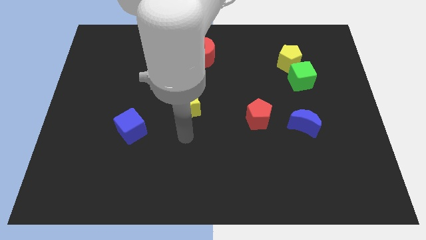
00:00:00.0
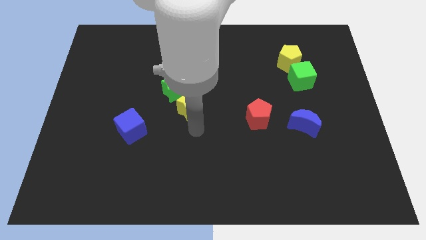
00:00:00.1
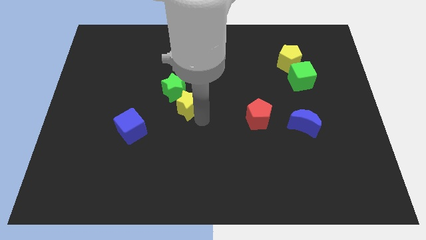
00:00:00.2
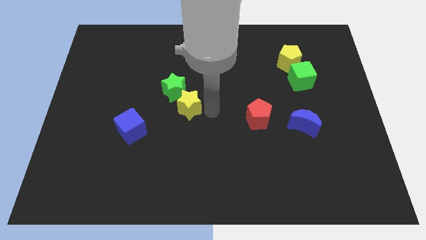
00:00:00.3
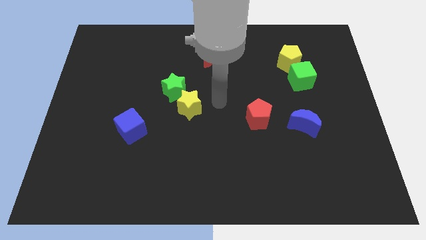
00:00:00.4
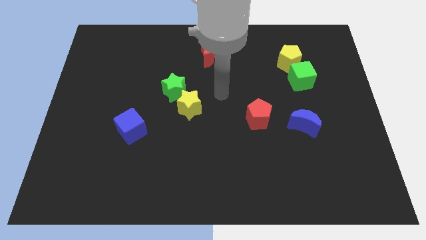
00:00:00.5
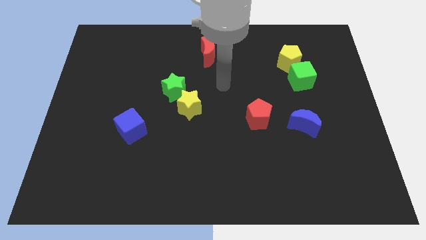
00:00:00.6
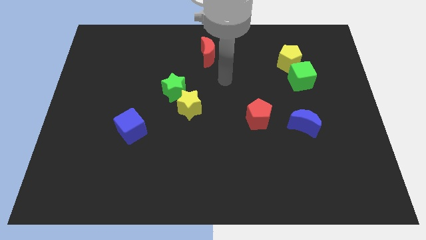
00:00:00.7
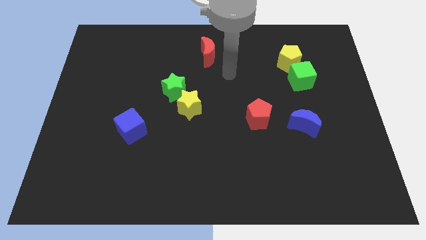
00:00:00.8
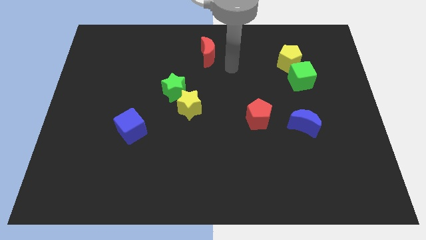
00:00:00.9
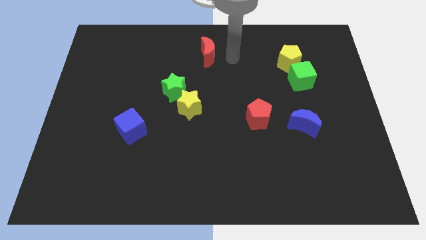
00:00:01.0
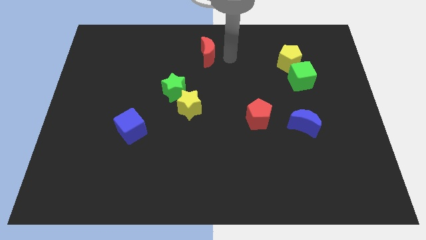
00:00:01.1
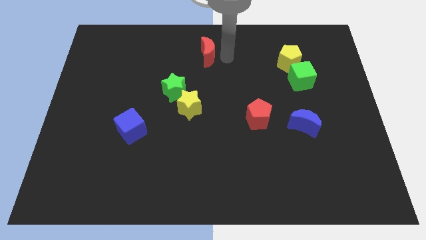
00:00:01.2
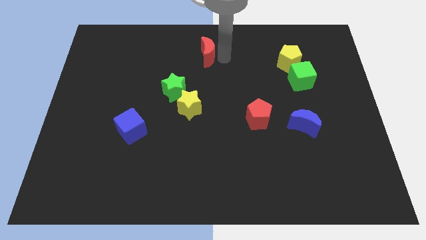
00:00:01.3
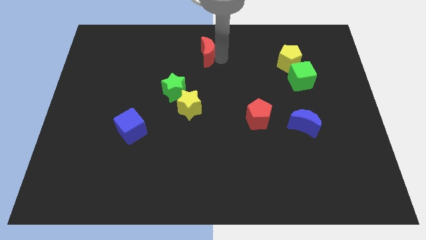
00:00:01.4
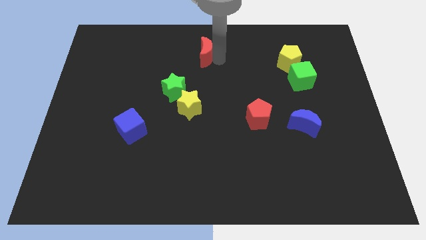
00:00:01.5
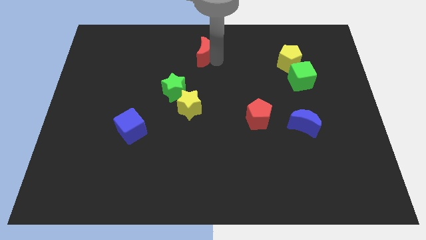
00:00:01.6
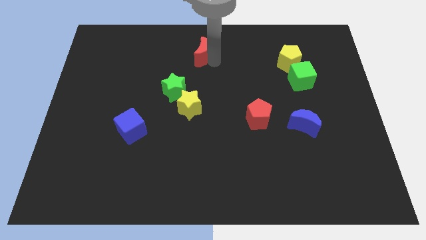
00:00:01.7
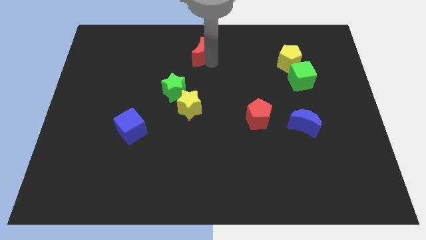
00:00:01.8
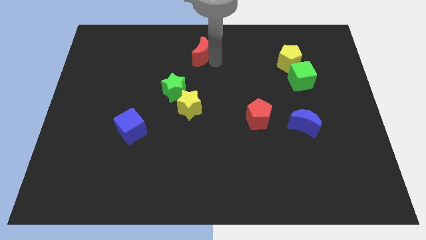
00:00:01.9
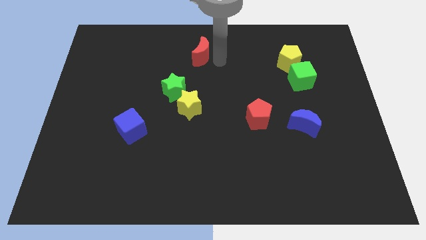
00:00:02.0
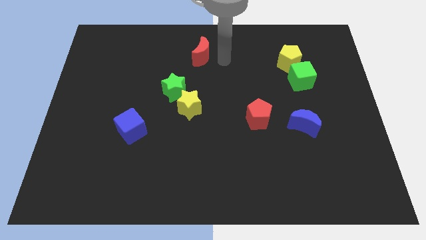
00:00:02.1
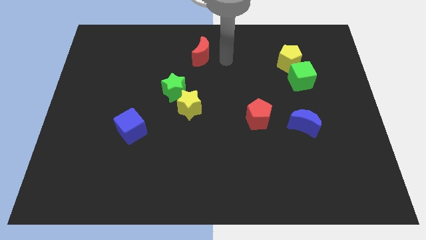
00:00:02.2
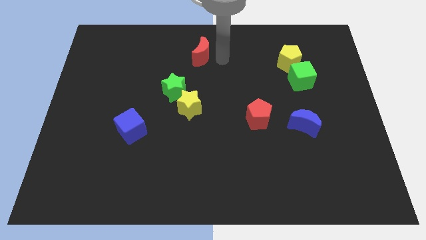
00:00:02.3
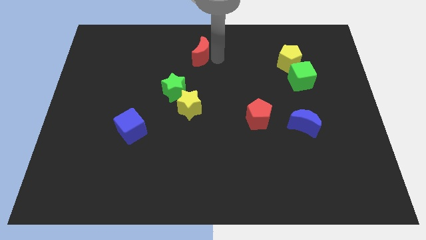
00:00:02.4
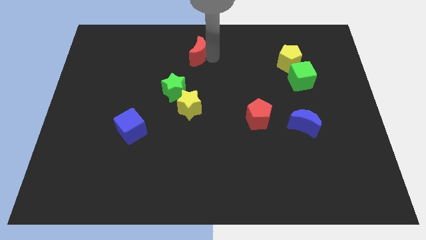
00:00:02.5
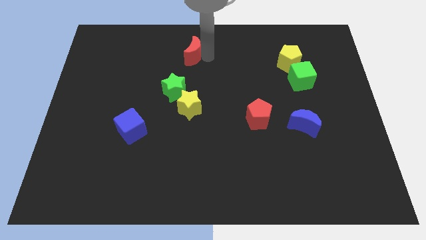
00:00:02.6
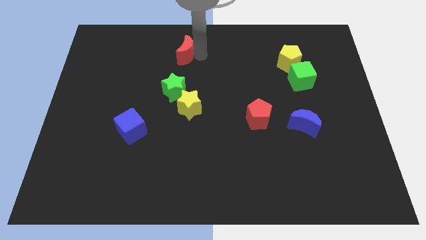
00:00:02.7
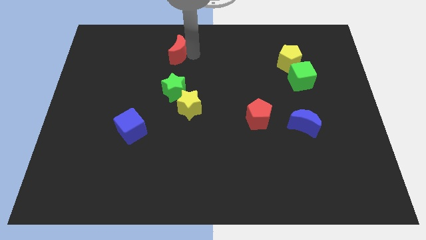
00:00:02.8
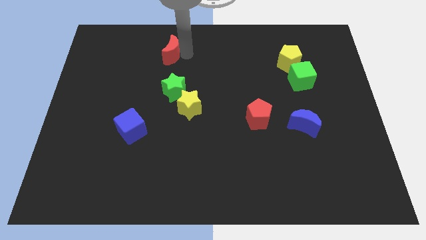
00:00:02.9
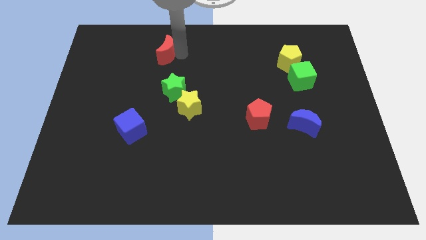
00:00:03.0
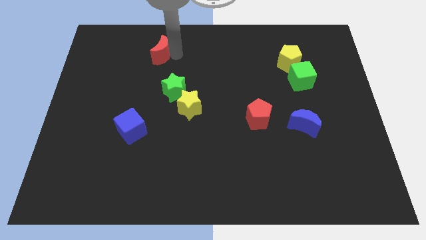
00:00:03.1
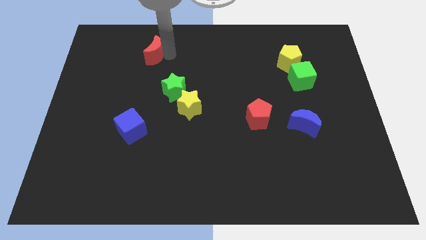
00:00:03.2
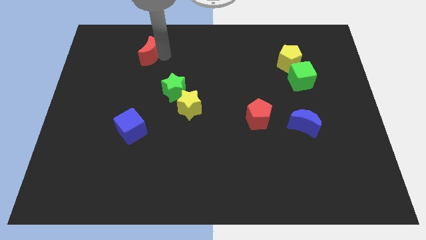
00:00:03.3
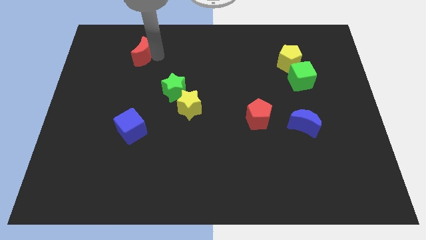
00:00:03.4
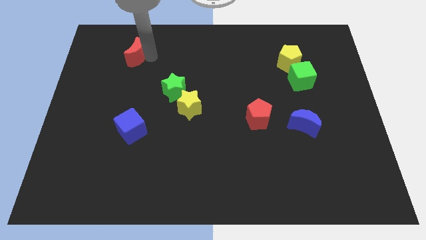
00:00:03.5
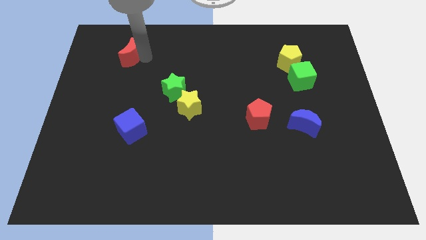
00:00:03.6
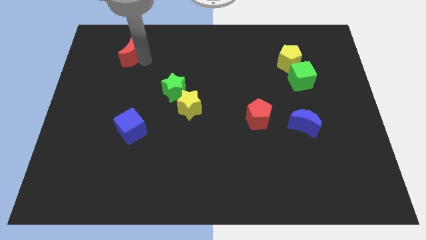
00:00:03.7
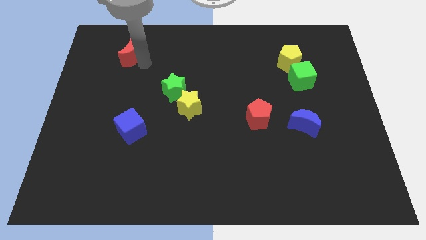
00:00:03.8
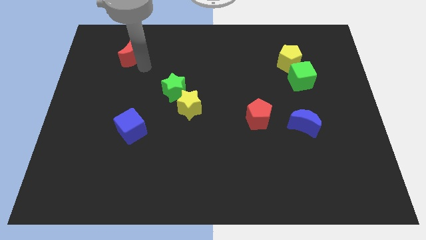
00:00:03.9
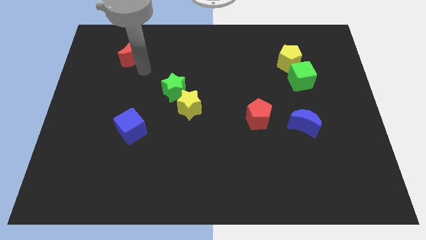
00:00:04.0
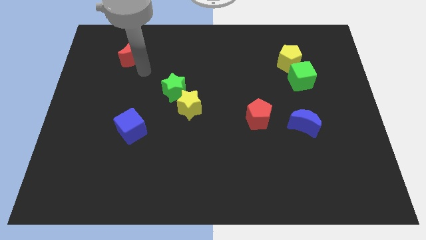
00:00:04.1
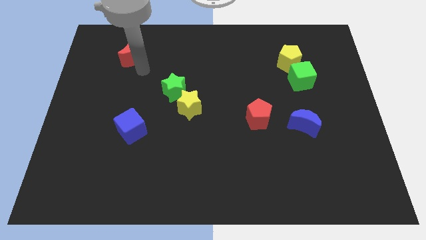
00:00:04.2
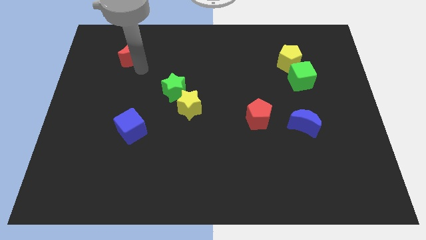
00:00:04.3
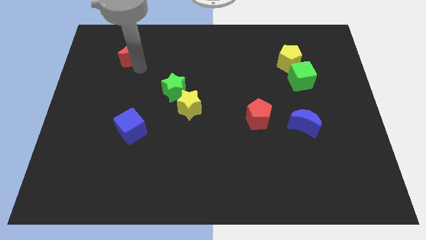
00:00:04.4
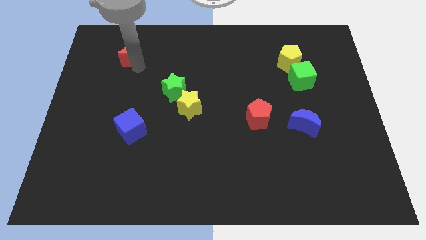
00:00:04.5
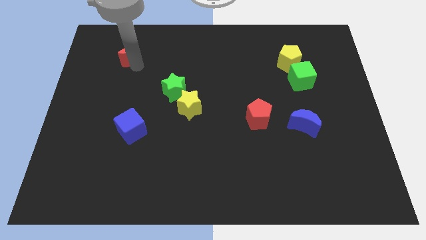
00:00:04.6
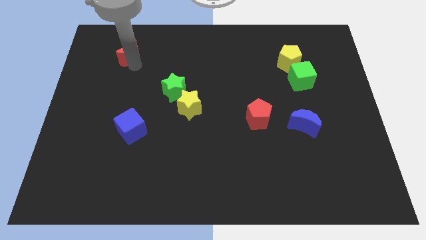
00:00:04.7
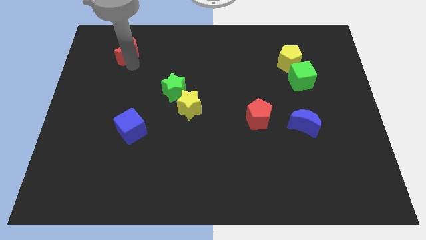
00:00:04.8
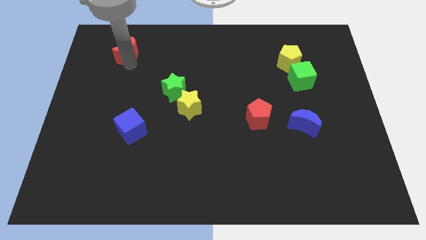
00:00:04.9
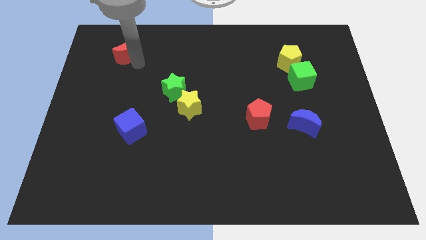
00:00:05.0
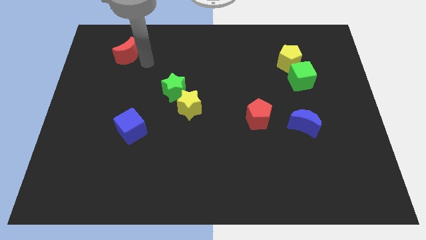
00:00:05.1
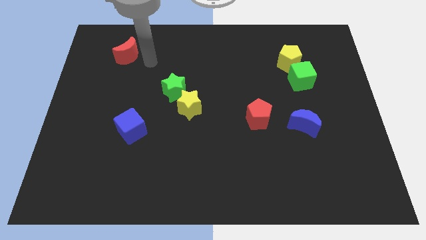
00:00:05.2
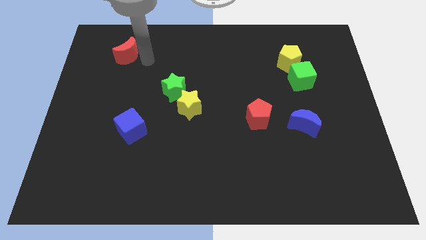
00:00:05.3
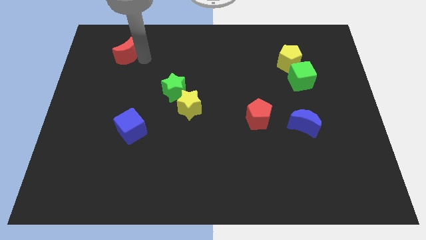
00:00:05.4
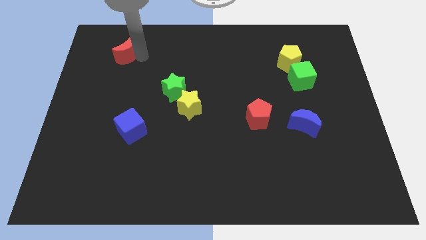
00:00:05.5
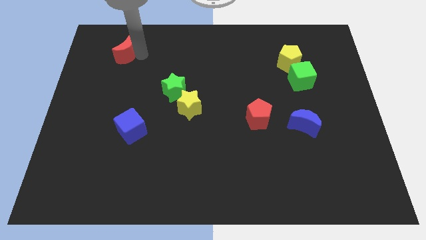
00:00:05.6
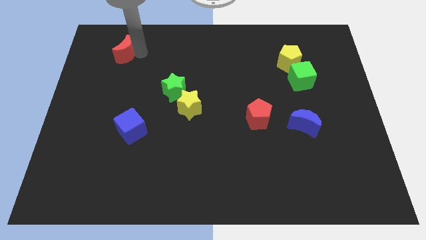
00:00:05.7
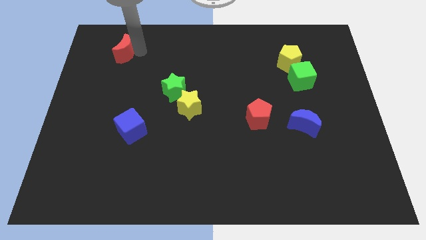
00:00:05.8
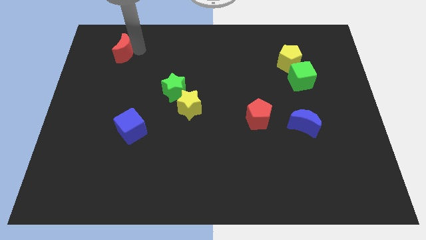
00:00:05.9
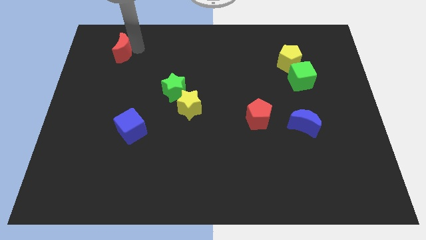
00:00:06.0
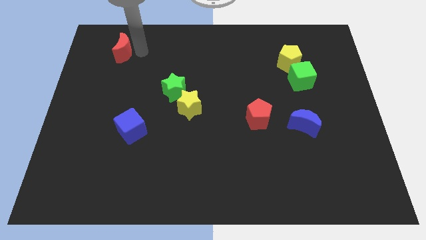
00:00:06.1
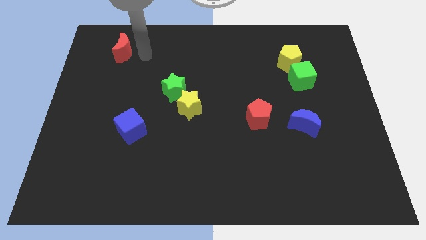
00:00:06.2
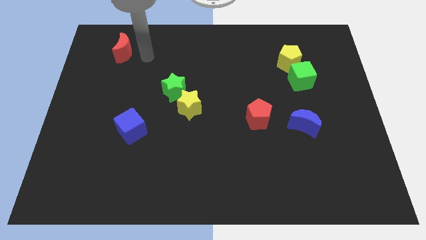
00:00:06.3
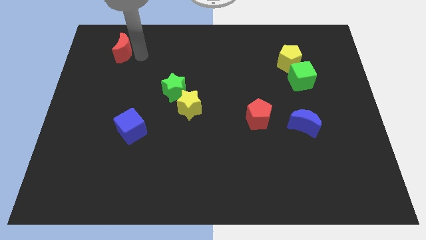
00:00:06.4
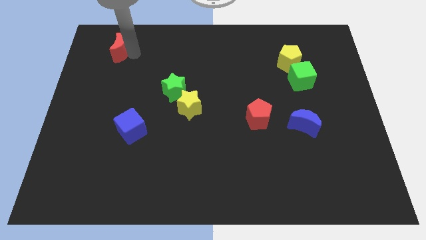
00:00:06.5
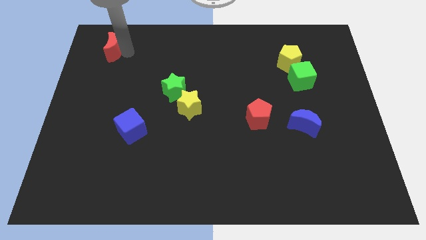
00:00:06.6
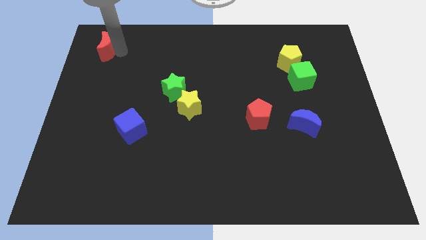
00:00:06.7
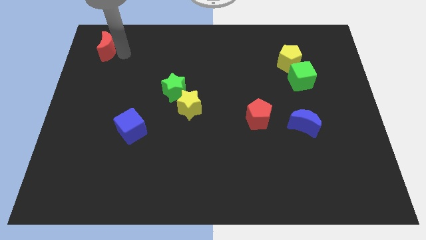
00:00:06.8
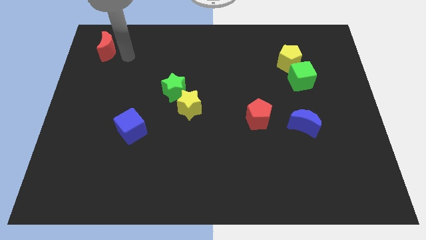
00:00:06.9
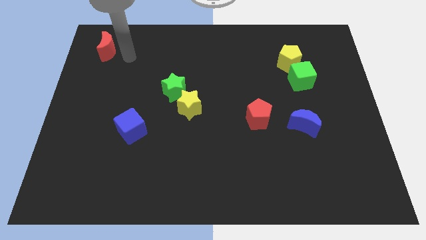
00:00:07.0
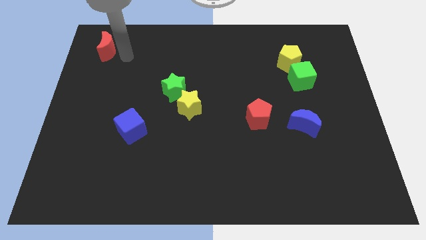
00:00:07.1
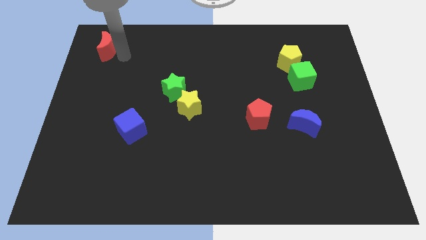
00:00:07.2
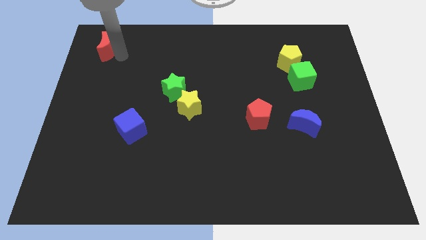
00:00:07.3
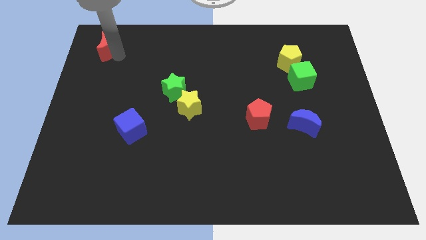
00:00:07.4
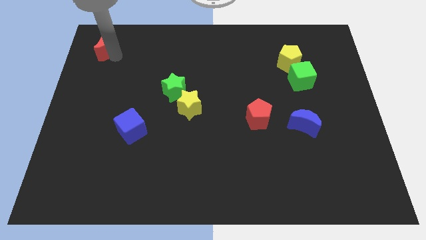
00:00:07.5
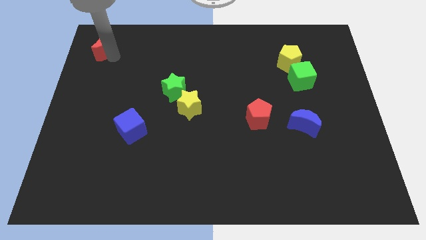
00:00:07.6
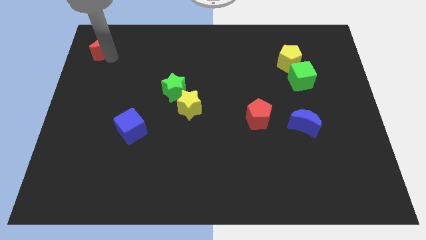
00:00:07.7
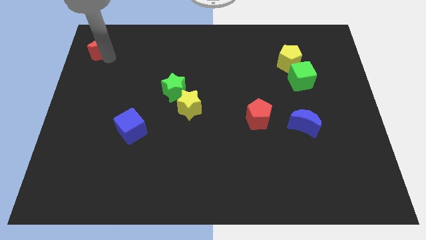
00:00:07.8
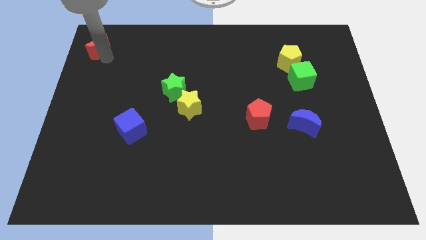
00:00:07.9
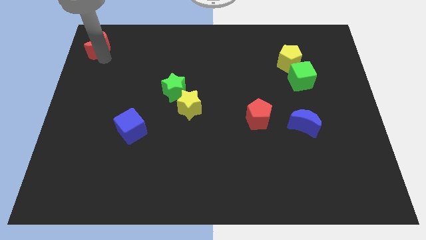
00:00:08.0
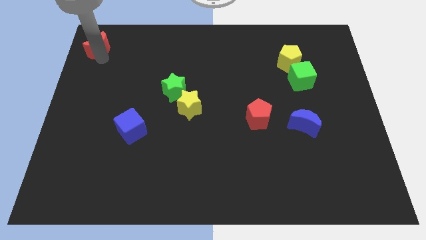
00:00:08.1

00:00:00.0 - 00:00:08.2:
slide the red moon to the top left
